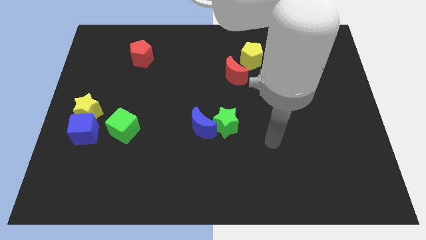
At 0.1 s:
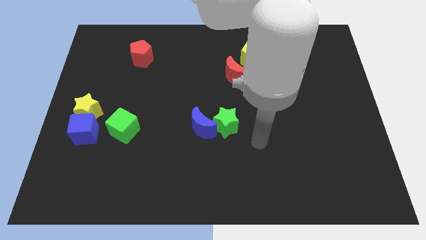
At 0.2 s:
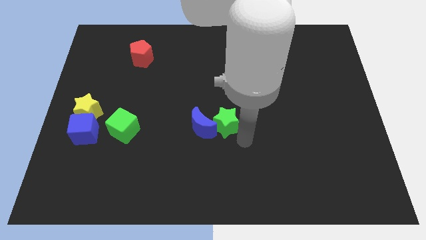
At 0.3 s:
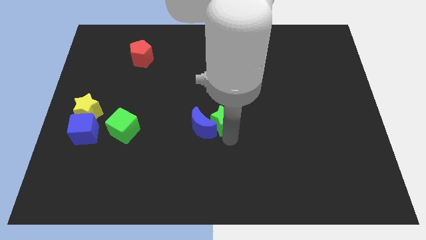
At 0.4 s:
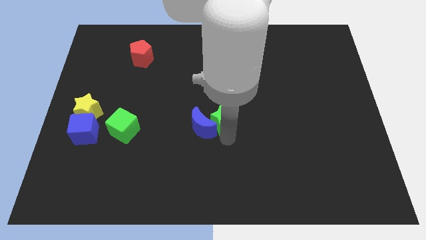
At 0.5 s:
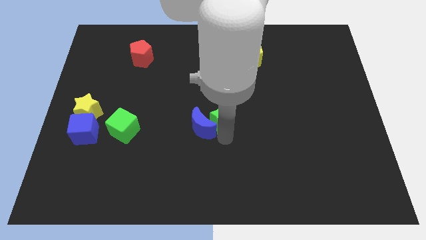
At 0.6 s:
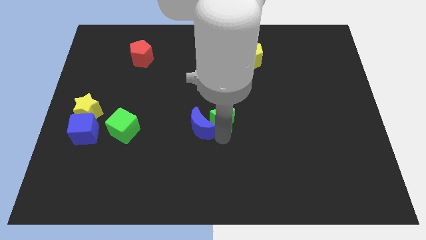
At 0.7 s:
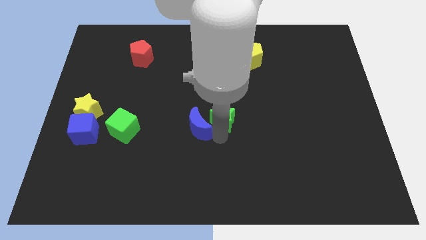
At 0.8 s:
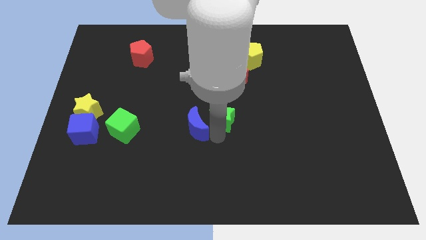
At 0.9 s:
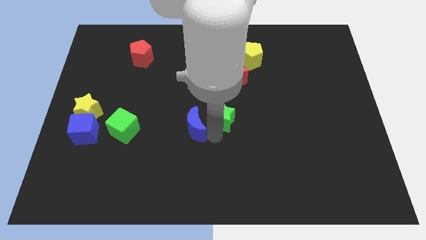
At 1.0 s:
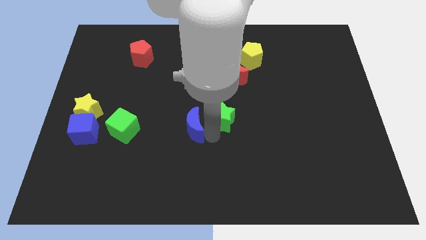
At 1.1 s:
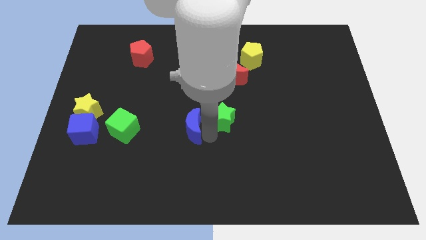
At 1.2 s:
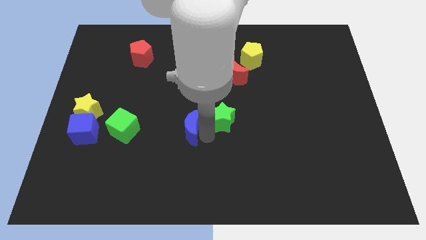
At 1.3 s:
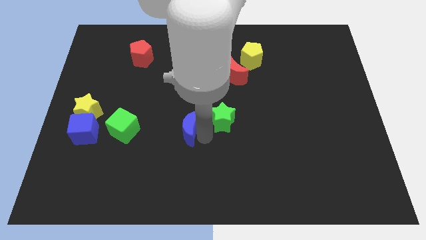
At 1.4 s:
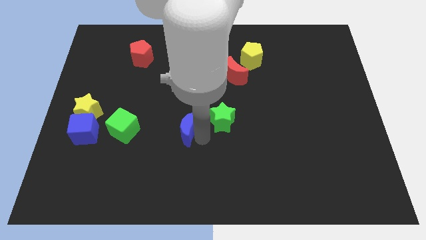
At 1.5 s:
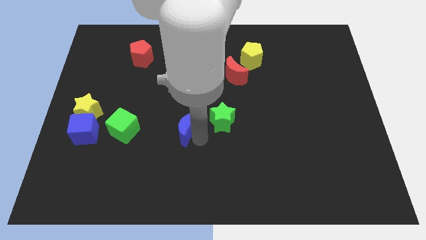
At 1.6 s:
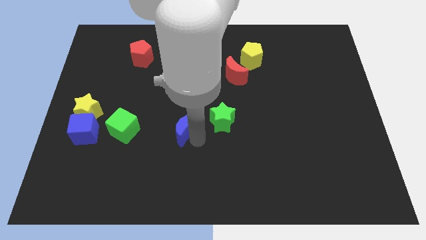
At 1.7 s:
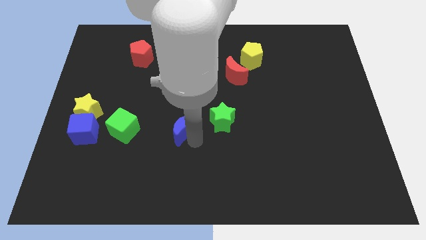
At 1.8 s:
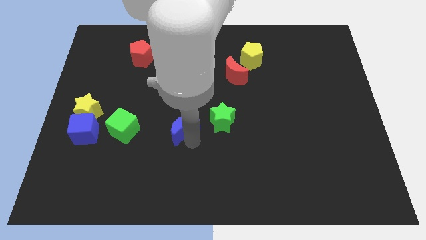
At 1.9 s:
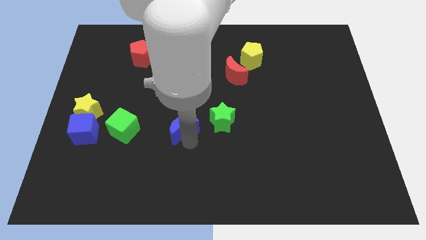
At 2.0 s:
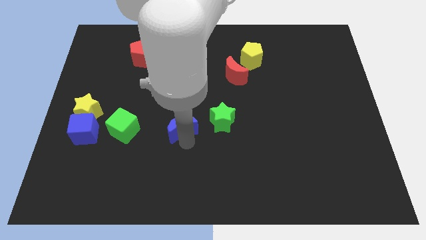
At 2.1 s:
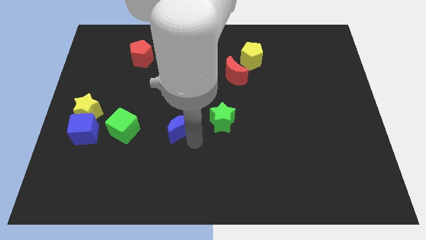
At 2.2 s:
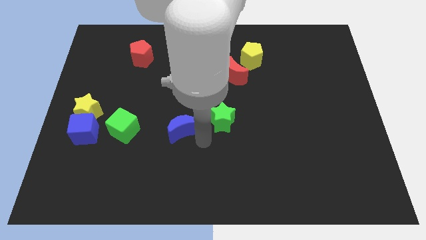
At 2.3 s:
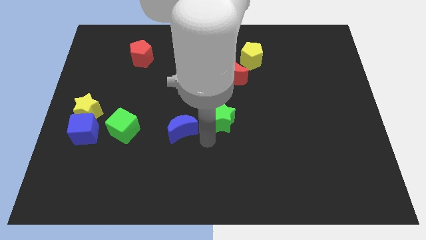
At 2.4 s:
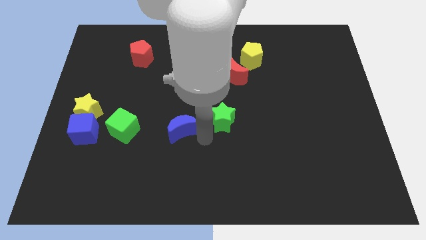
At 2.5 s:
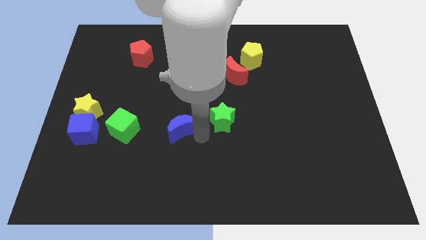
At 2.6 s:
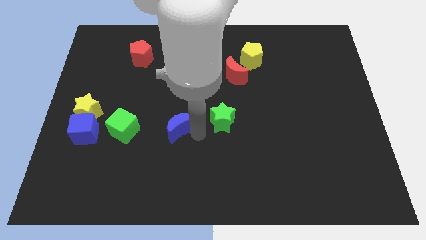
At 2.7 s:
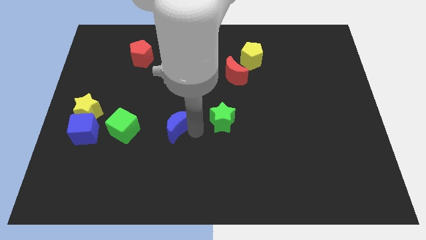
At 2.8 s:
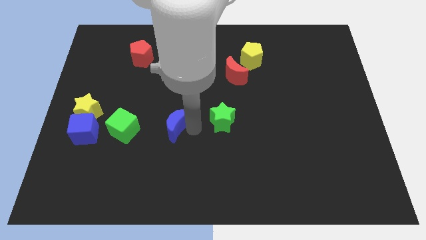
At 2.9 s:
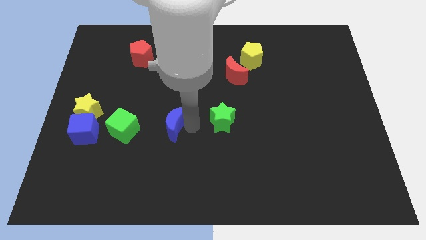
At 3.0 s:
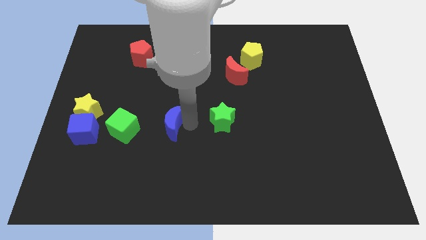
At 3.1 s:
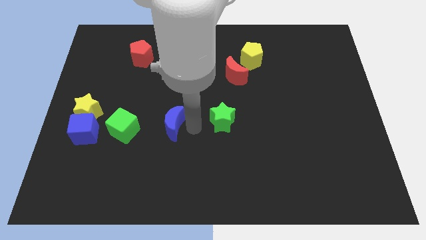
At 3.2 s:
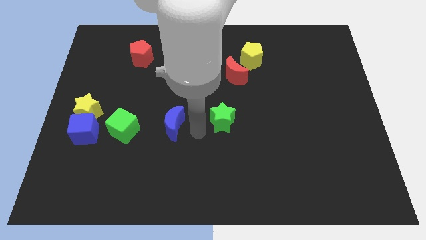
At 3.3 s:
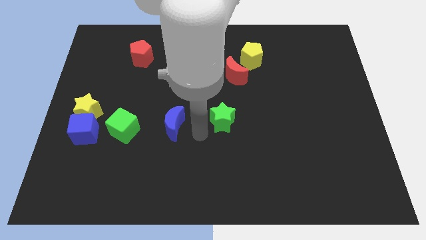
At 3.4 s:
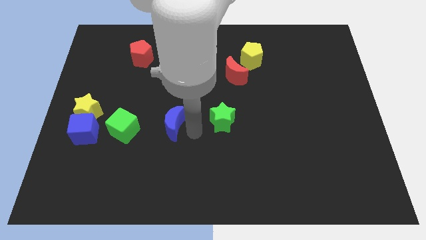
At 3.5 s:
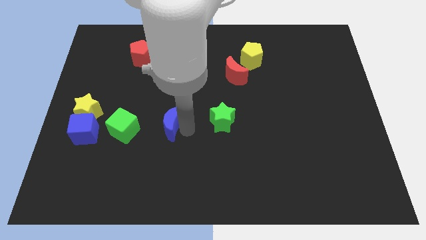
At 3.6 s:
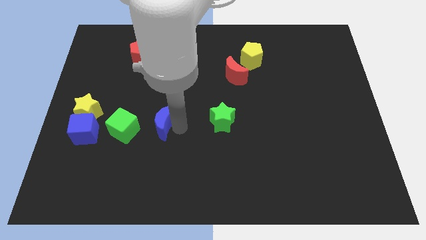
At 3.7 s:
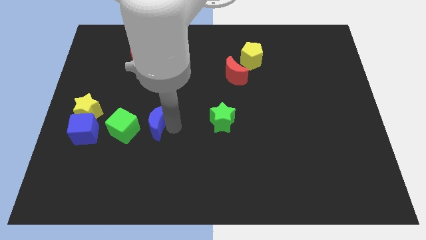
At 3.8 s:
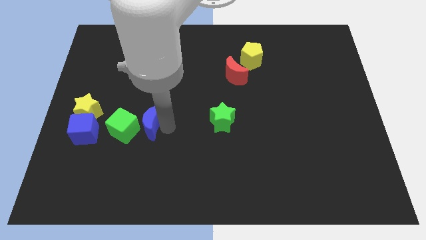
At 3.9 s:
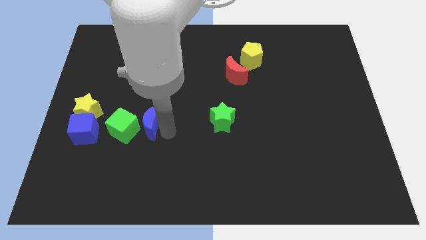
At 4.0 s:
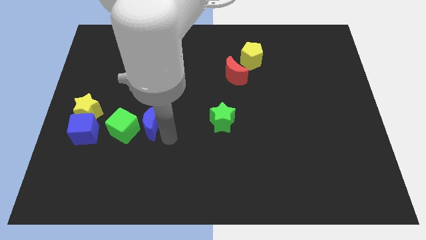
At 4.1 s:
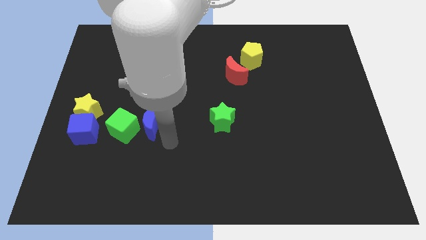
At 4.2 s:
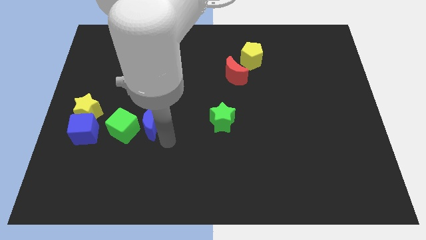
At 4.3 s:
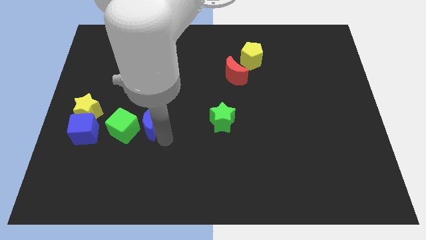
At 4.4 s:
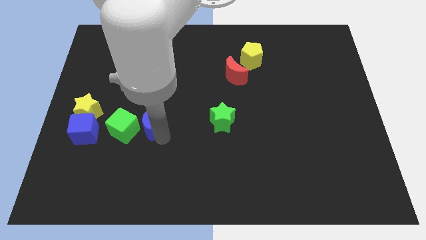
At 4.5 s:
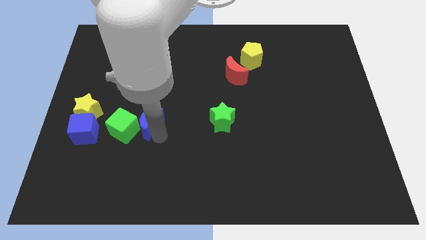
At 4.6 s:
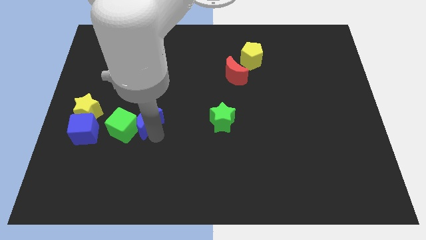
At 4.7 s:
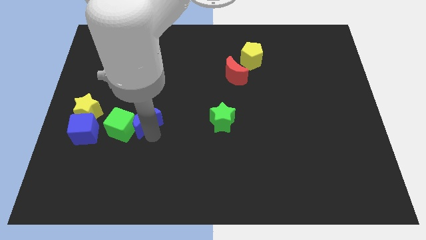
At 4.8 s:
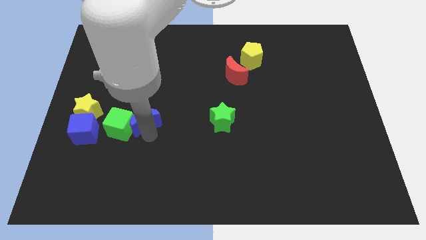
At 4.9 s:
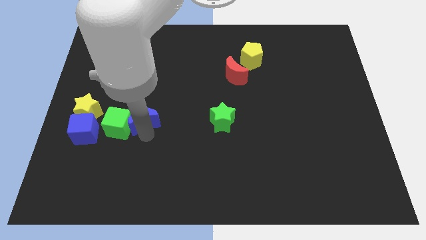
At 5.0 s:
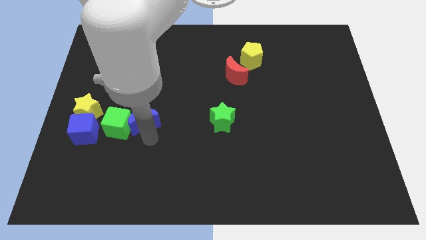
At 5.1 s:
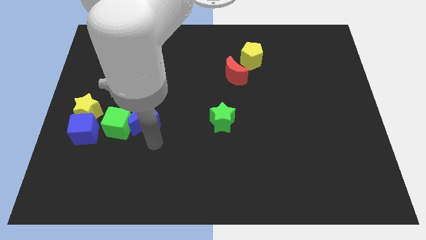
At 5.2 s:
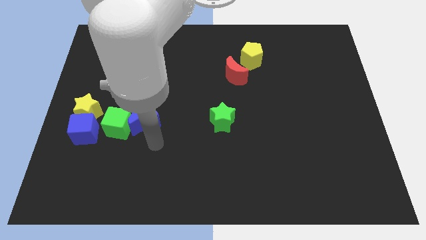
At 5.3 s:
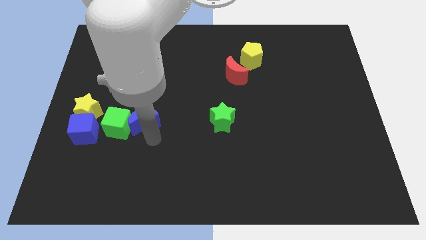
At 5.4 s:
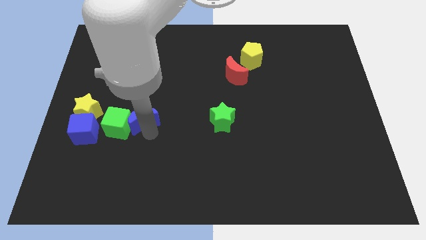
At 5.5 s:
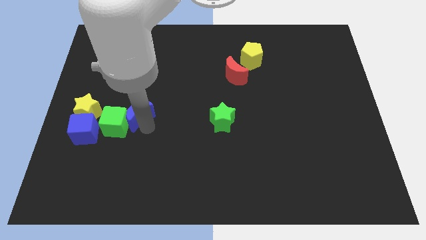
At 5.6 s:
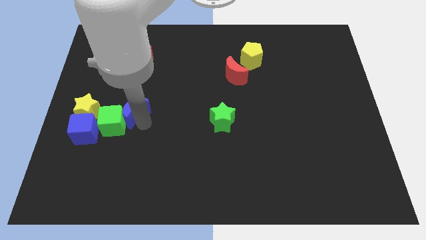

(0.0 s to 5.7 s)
move the blue moon to the top right side of the blue cube

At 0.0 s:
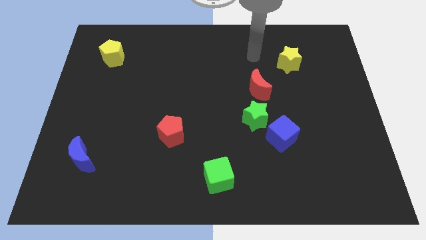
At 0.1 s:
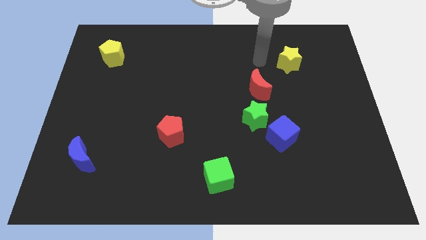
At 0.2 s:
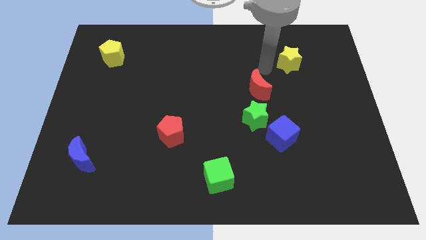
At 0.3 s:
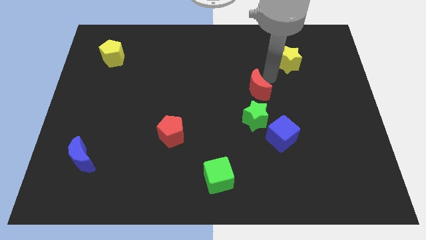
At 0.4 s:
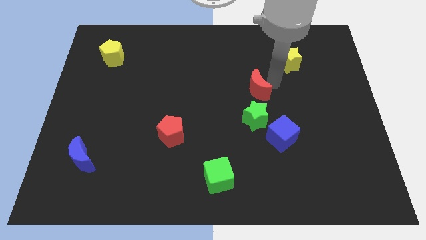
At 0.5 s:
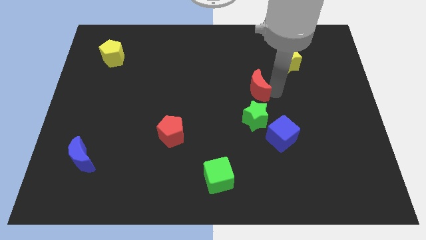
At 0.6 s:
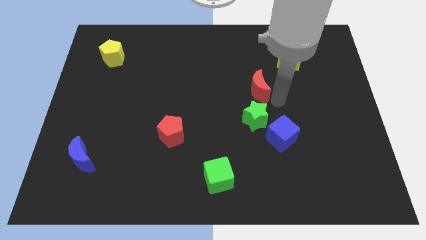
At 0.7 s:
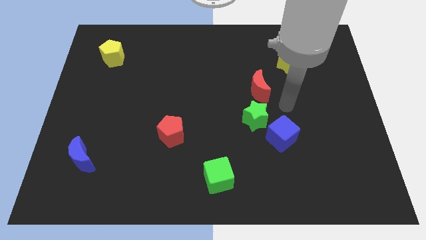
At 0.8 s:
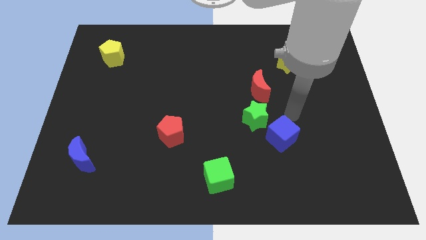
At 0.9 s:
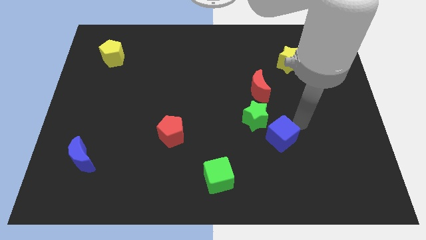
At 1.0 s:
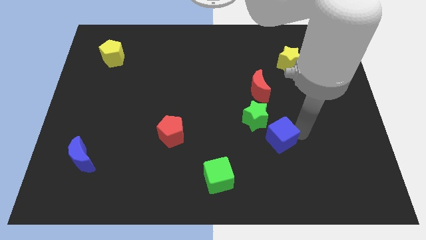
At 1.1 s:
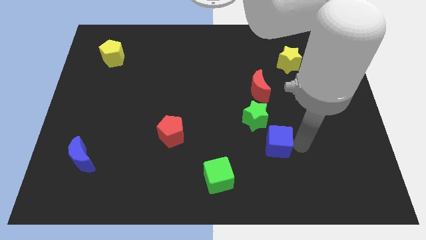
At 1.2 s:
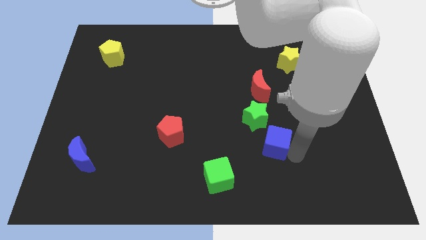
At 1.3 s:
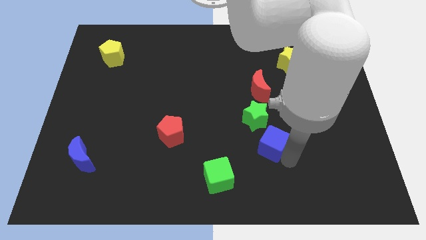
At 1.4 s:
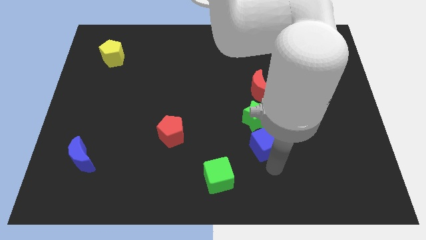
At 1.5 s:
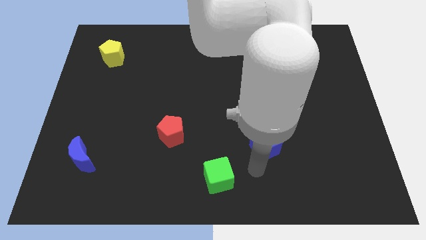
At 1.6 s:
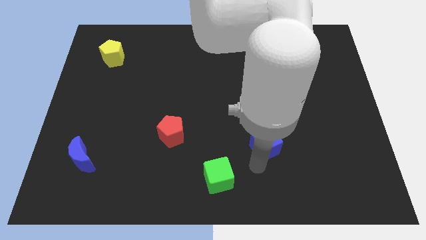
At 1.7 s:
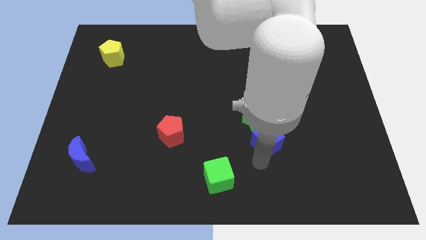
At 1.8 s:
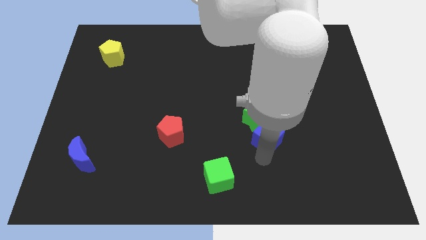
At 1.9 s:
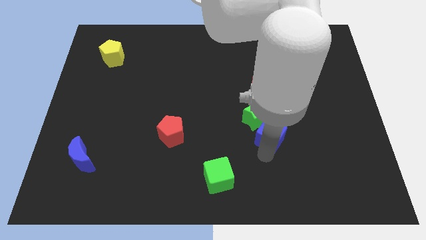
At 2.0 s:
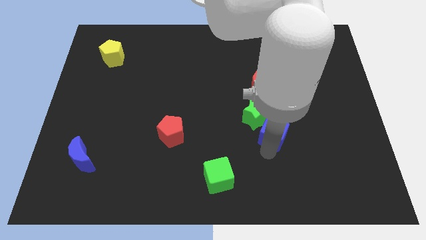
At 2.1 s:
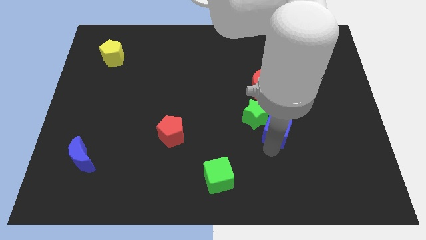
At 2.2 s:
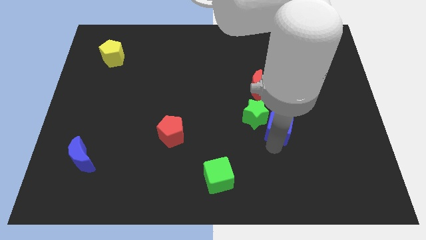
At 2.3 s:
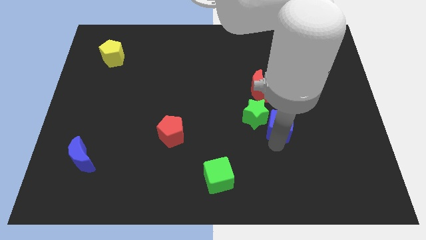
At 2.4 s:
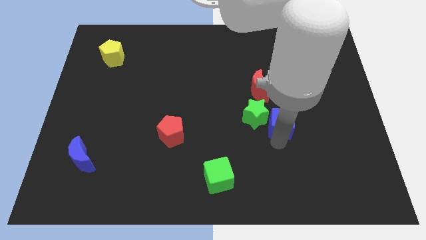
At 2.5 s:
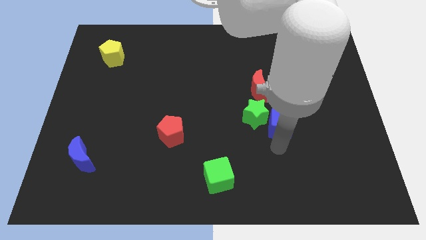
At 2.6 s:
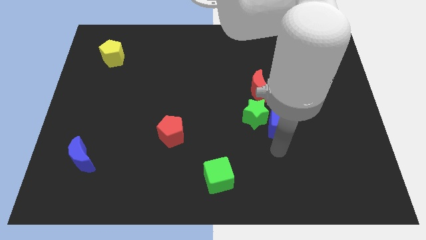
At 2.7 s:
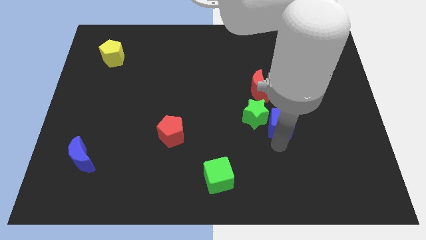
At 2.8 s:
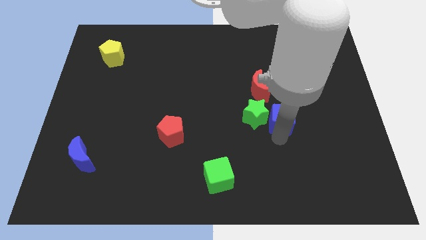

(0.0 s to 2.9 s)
slide the blue cube diagonally down and to the right of the red moon
